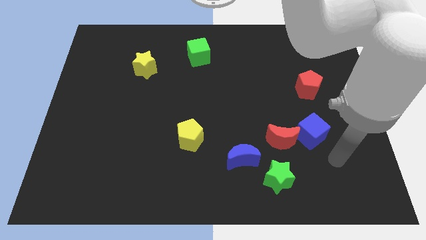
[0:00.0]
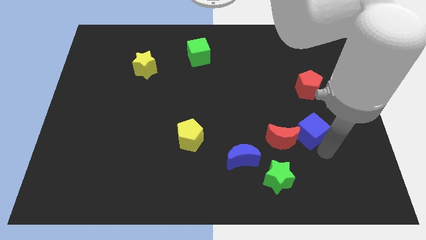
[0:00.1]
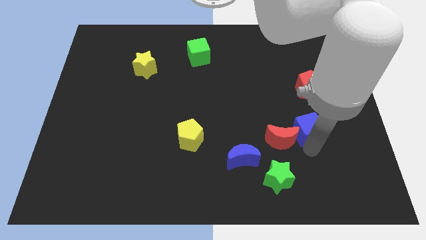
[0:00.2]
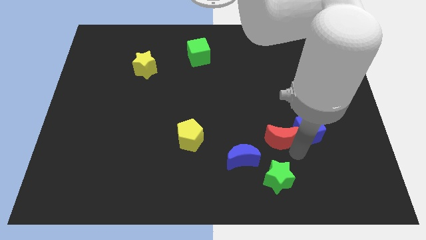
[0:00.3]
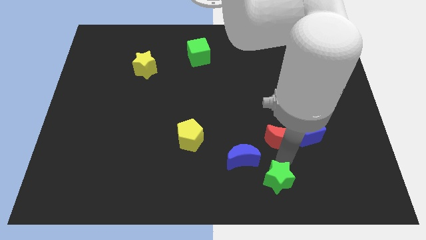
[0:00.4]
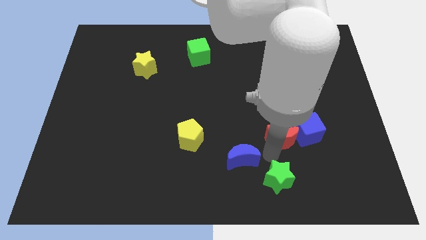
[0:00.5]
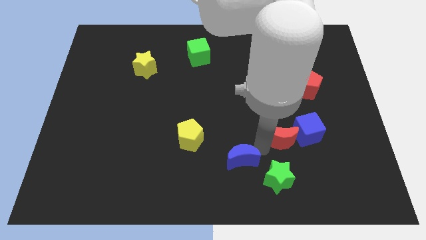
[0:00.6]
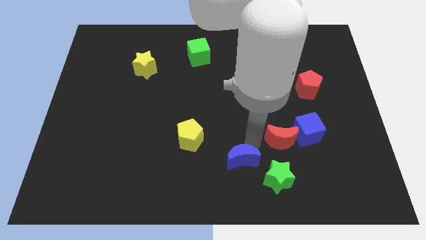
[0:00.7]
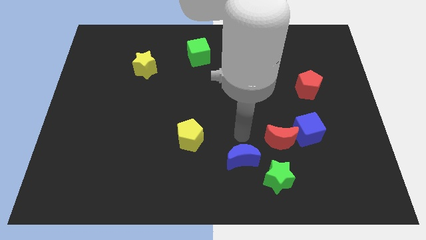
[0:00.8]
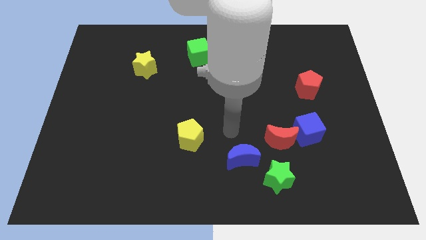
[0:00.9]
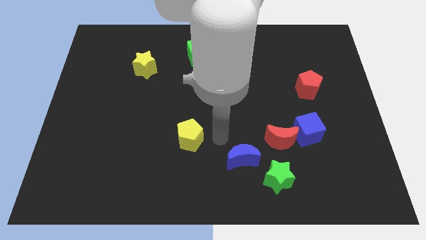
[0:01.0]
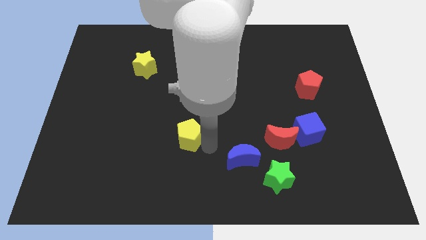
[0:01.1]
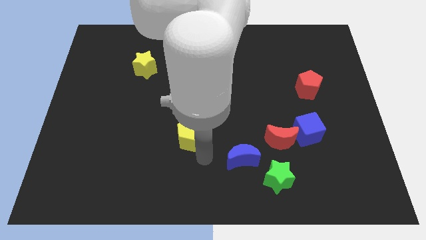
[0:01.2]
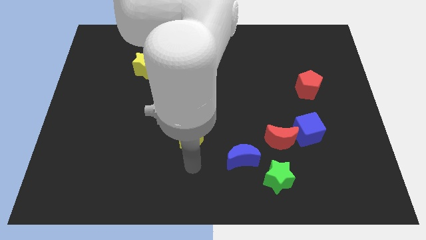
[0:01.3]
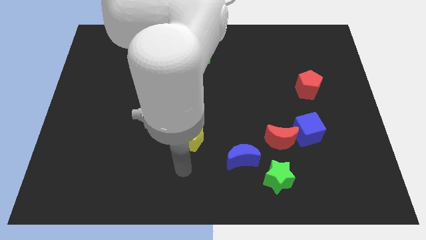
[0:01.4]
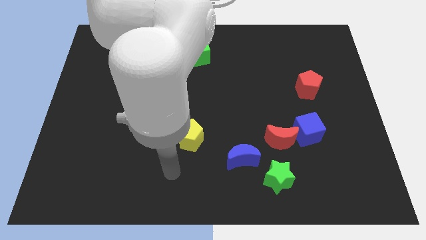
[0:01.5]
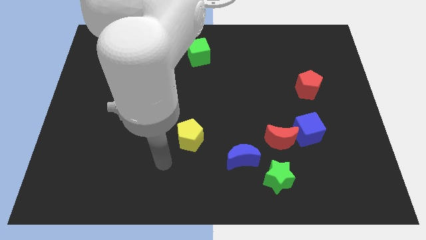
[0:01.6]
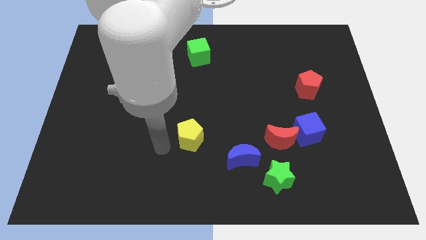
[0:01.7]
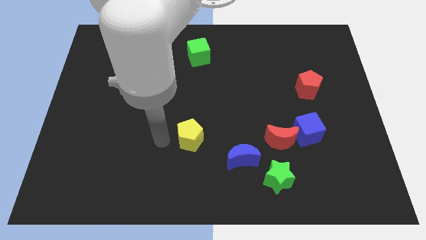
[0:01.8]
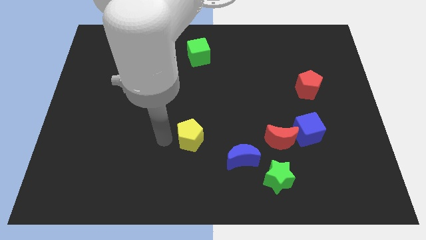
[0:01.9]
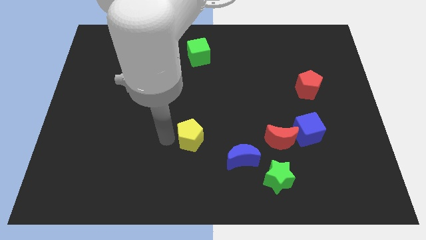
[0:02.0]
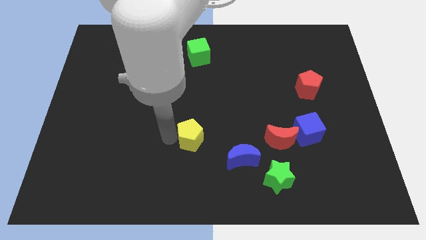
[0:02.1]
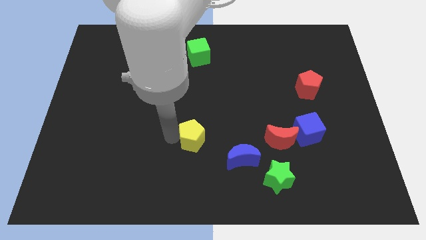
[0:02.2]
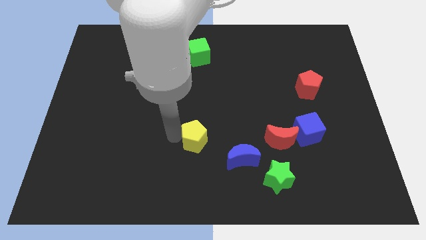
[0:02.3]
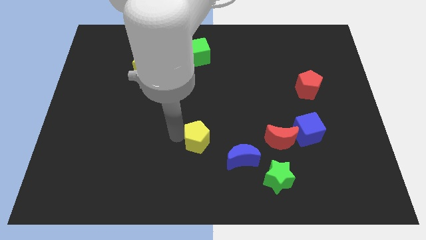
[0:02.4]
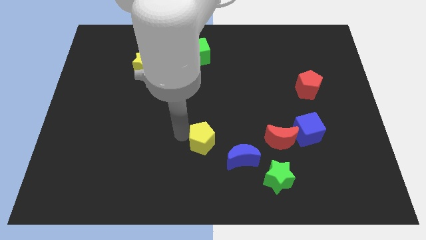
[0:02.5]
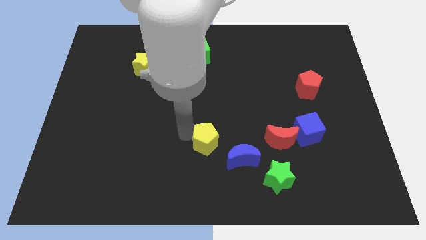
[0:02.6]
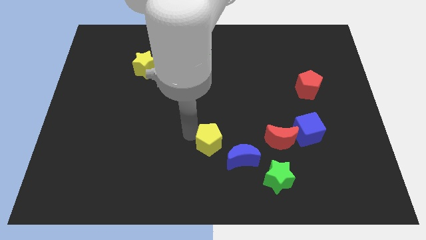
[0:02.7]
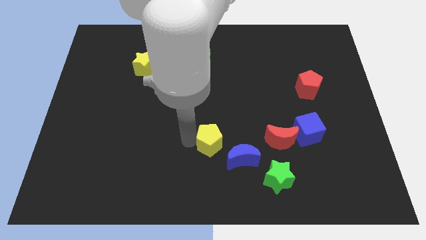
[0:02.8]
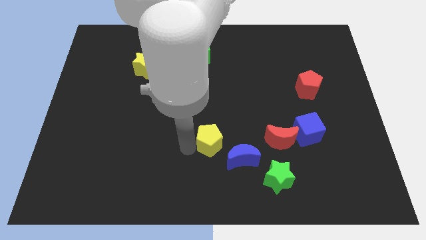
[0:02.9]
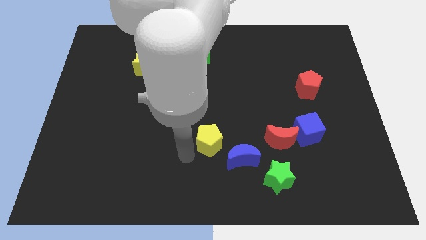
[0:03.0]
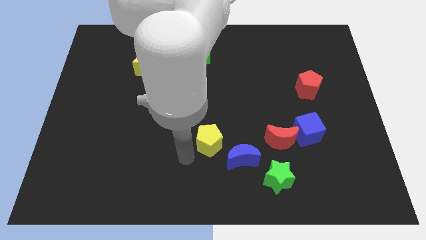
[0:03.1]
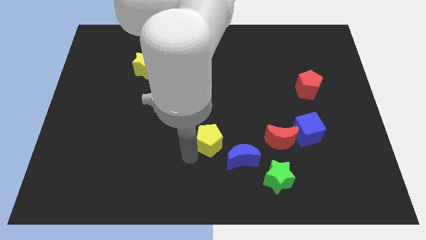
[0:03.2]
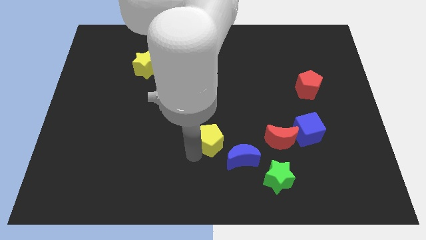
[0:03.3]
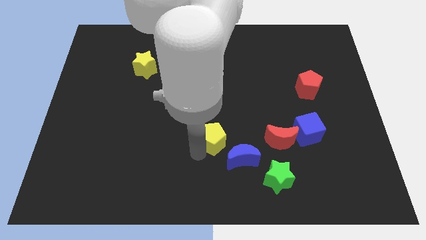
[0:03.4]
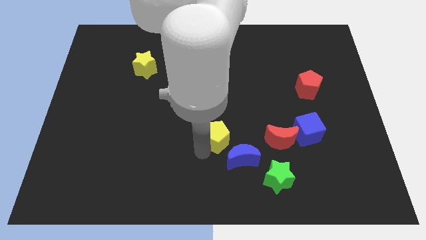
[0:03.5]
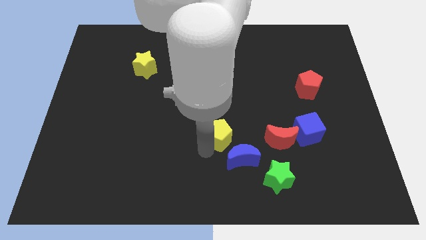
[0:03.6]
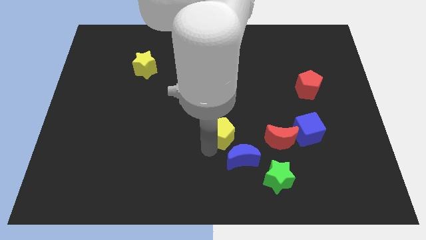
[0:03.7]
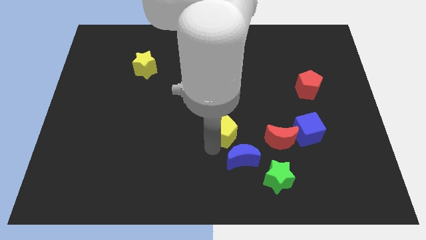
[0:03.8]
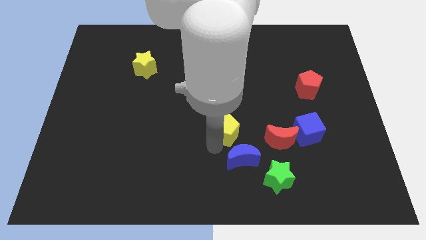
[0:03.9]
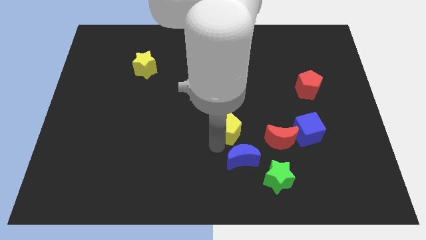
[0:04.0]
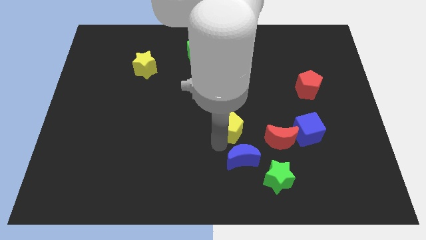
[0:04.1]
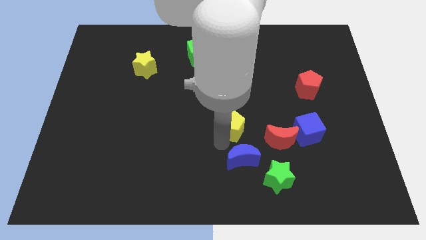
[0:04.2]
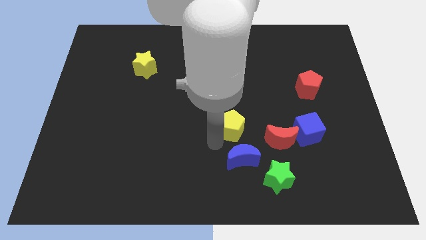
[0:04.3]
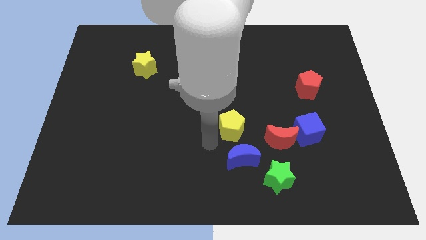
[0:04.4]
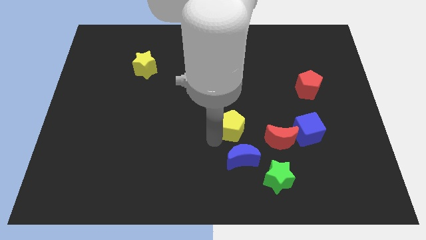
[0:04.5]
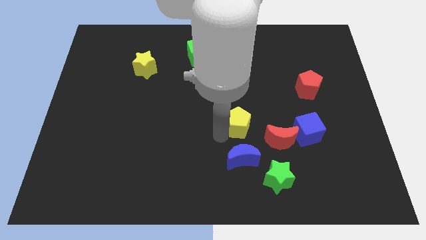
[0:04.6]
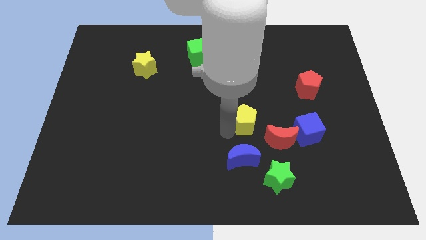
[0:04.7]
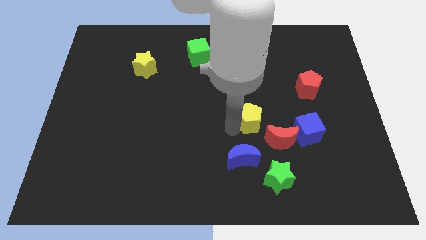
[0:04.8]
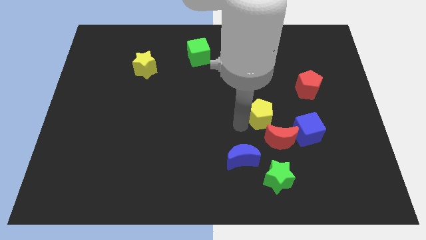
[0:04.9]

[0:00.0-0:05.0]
move the yellow pentagon to the top side of the red moon

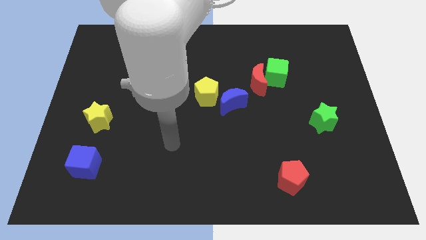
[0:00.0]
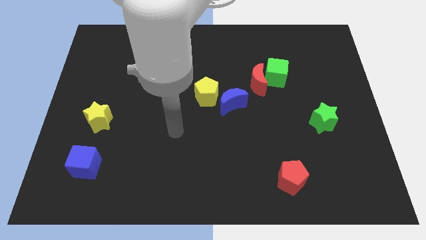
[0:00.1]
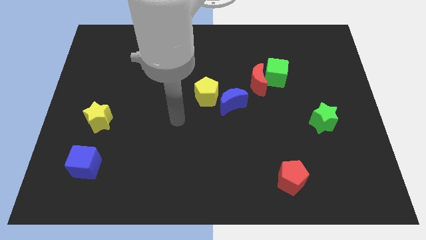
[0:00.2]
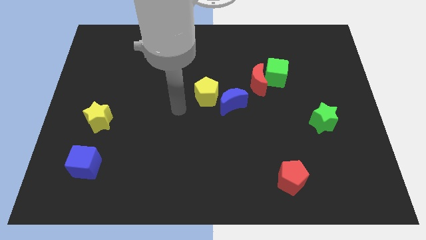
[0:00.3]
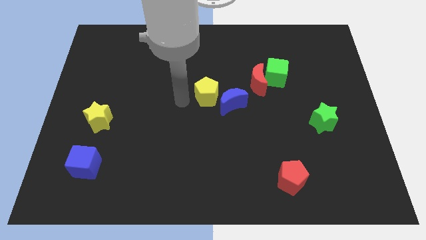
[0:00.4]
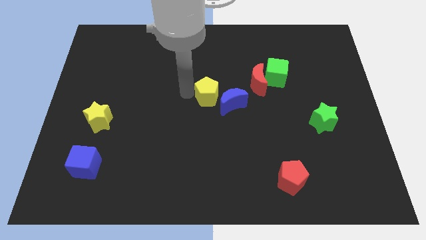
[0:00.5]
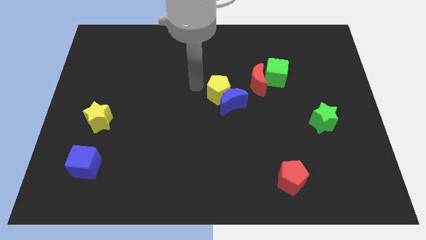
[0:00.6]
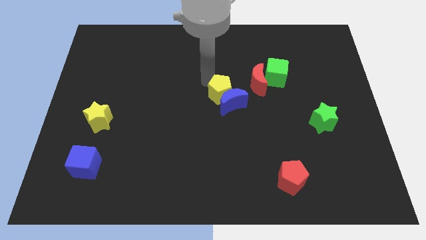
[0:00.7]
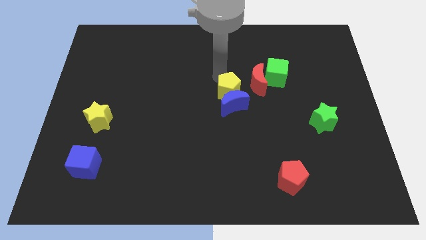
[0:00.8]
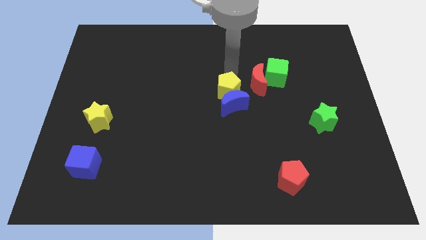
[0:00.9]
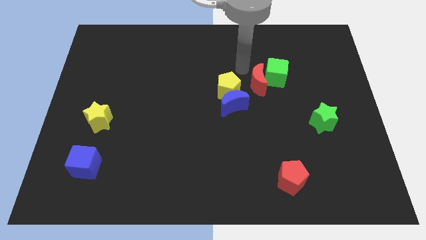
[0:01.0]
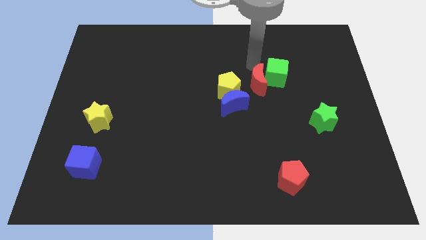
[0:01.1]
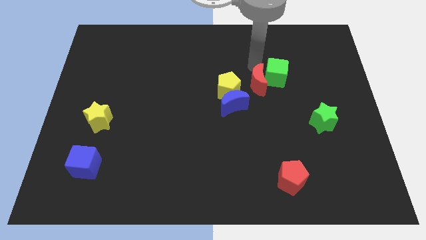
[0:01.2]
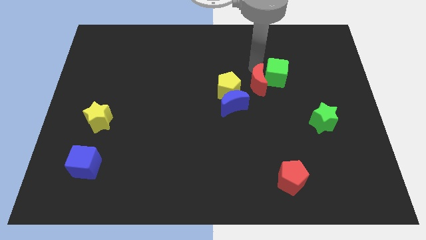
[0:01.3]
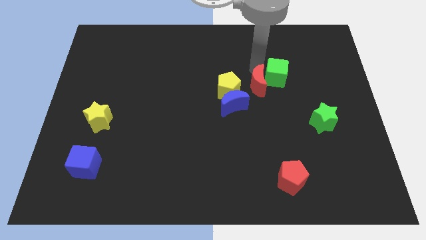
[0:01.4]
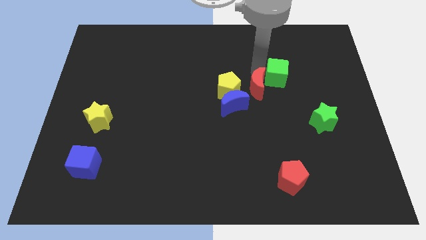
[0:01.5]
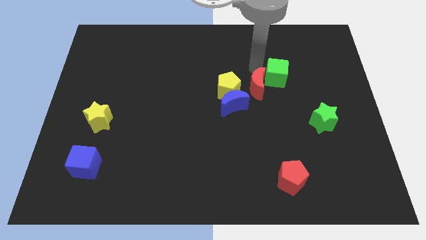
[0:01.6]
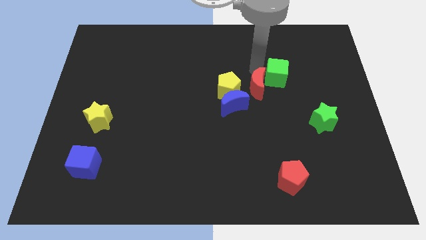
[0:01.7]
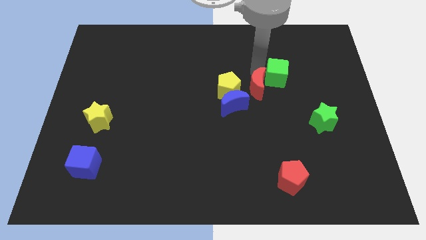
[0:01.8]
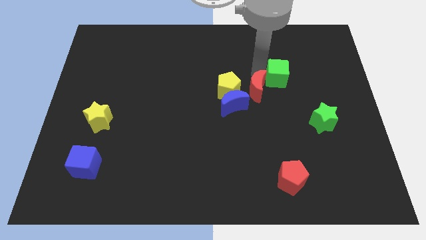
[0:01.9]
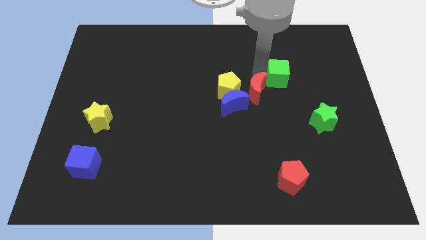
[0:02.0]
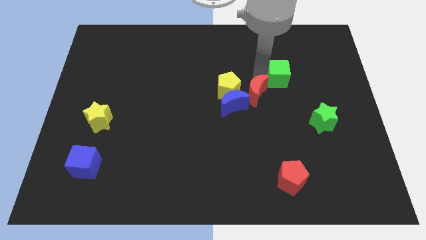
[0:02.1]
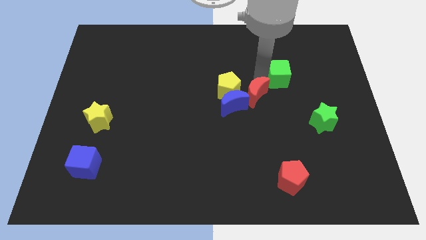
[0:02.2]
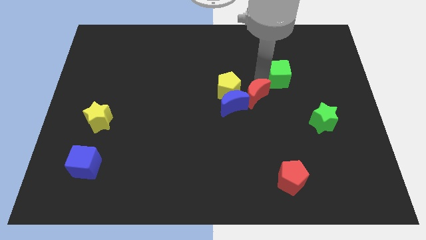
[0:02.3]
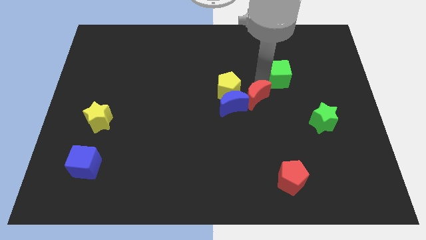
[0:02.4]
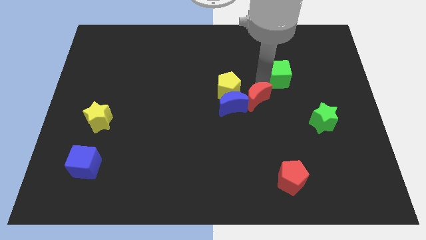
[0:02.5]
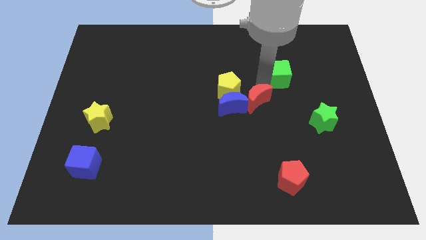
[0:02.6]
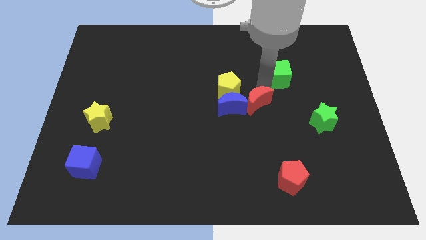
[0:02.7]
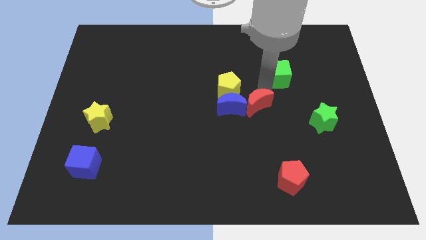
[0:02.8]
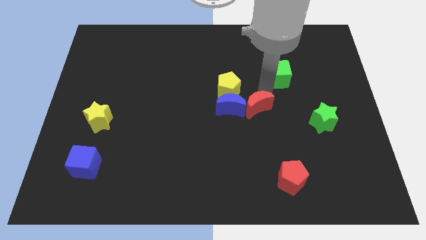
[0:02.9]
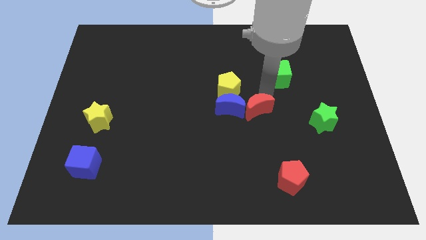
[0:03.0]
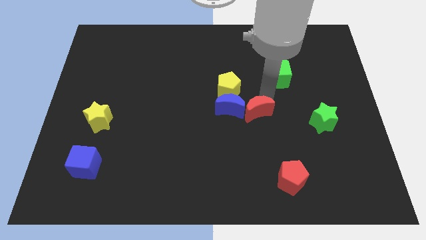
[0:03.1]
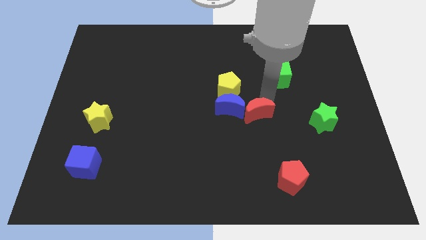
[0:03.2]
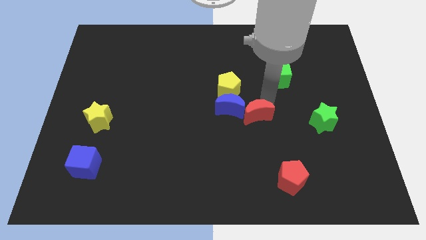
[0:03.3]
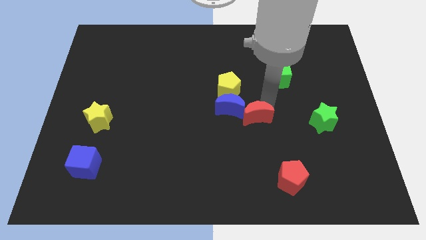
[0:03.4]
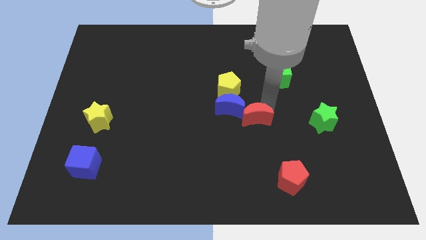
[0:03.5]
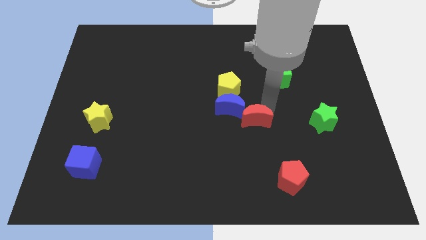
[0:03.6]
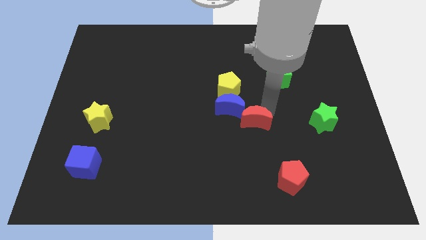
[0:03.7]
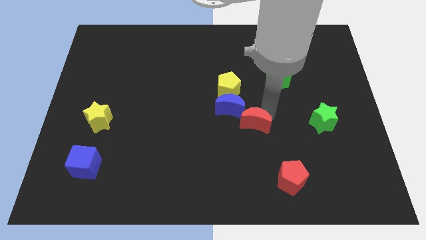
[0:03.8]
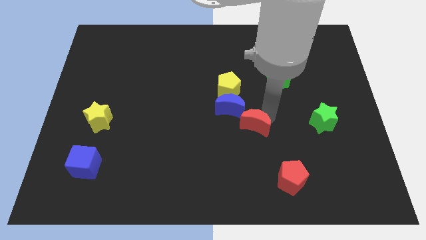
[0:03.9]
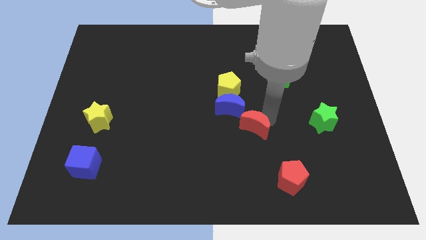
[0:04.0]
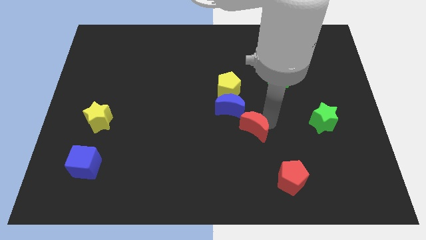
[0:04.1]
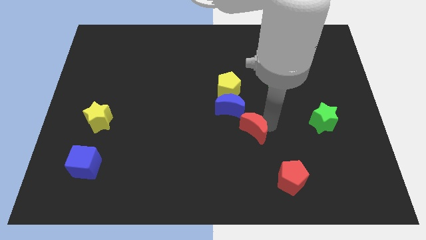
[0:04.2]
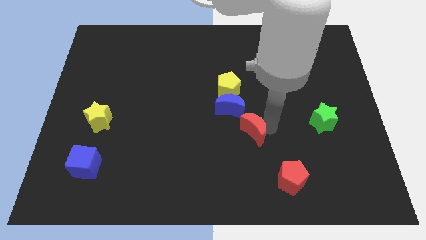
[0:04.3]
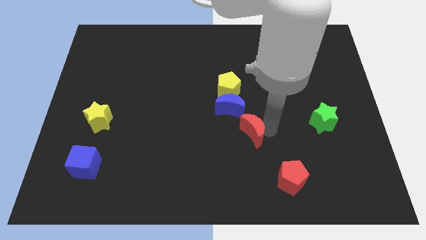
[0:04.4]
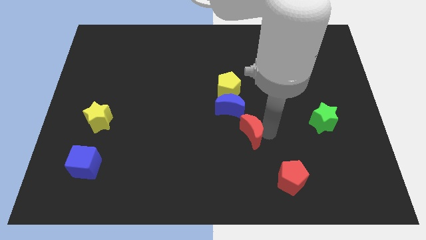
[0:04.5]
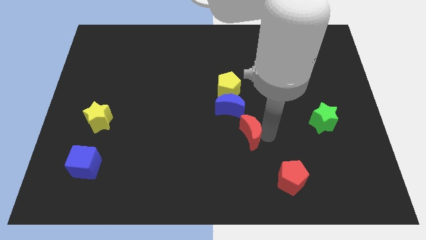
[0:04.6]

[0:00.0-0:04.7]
push the red moon below the yellow pentagon
